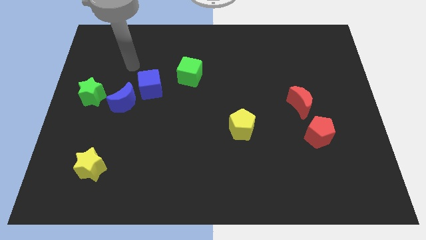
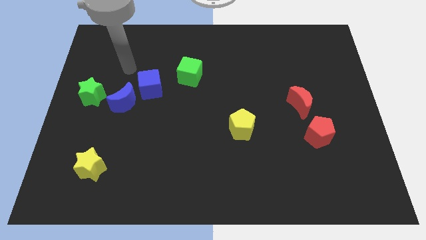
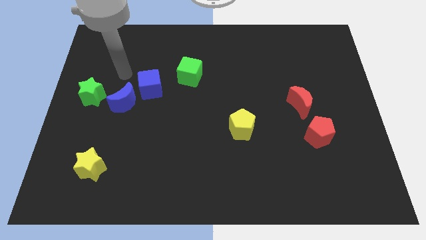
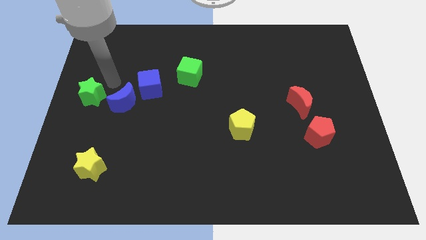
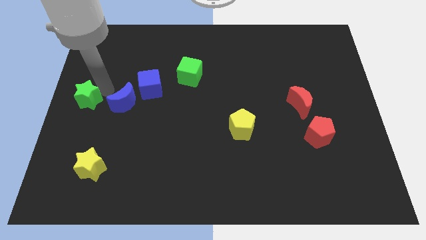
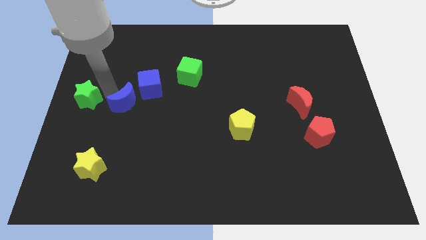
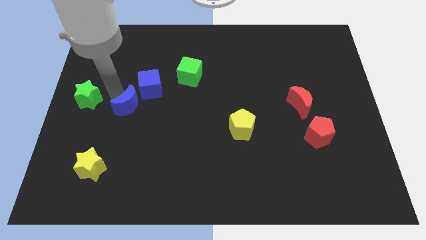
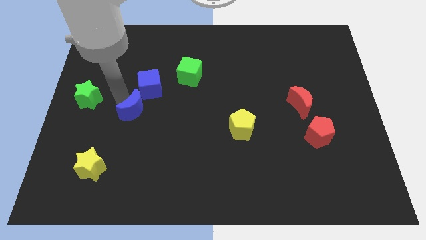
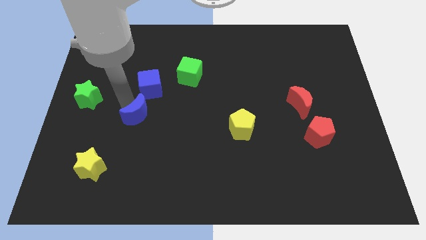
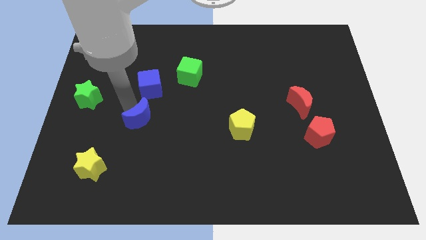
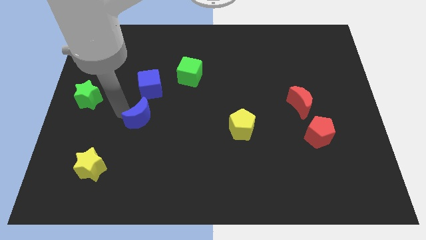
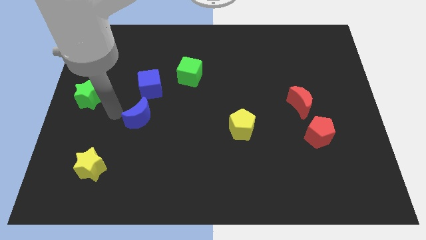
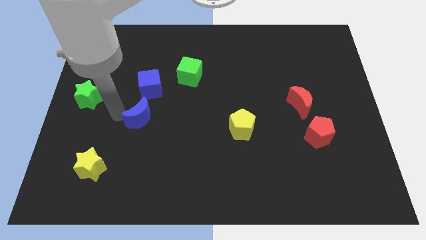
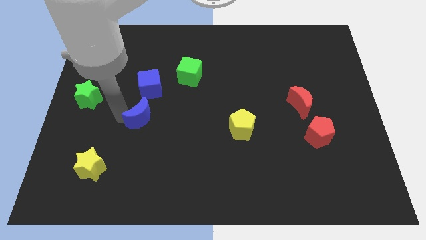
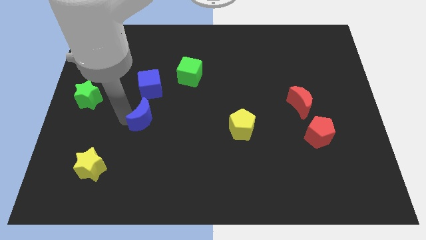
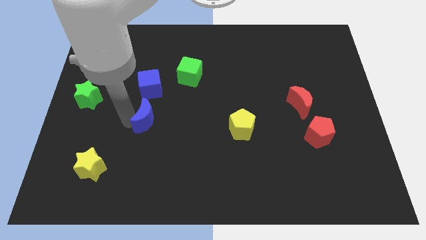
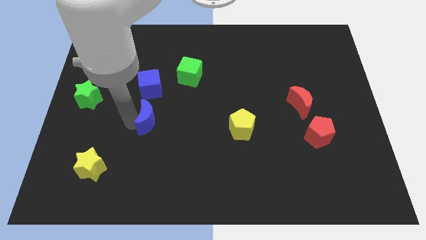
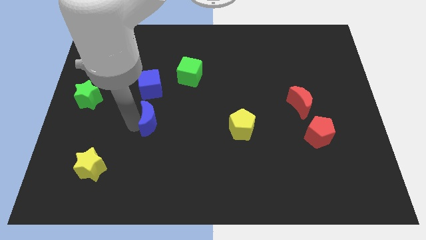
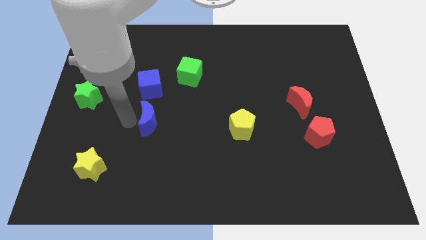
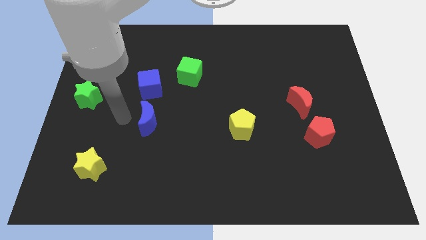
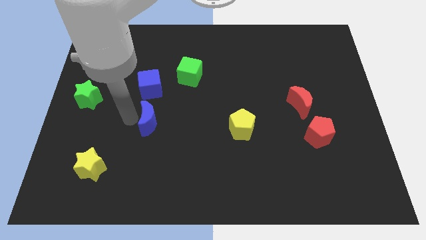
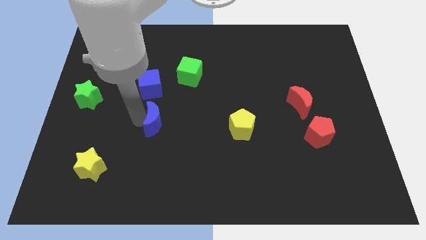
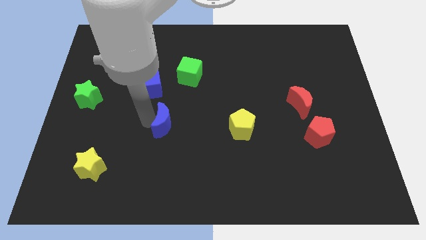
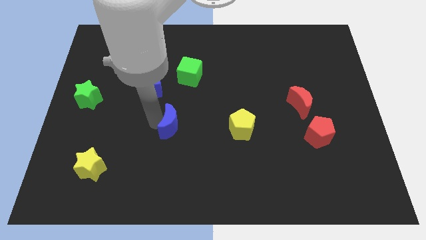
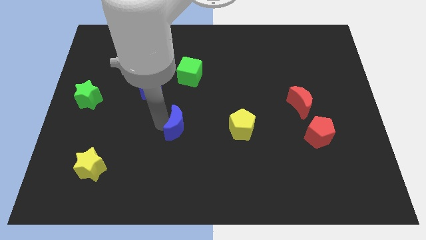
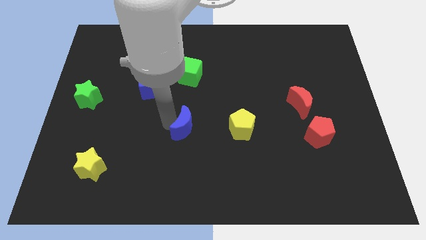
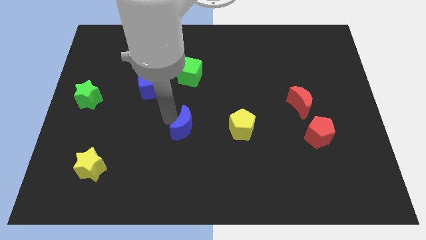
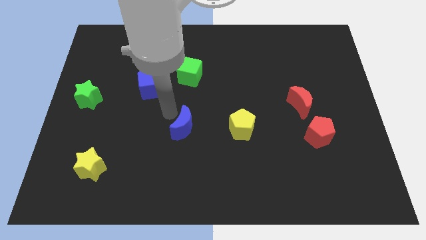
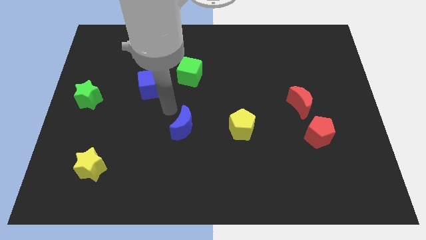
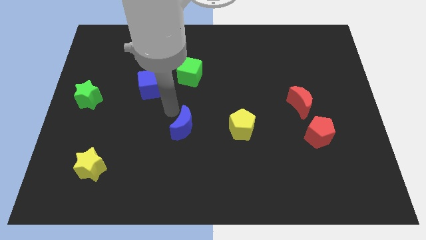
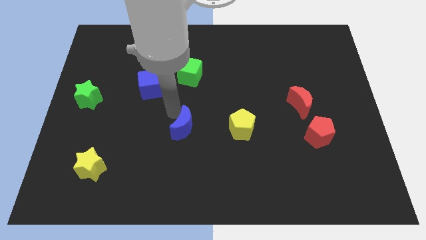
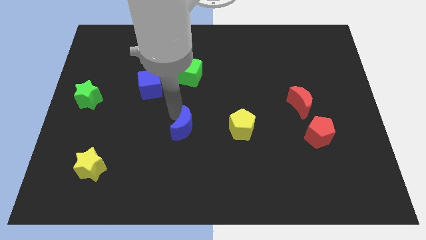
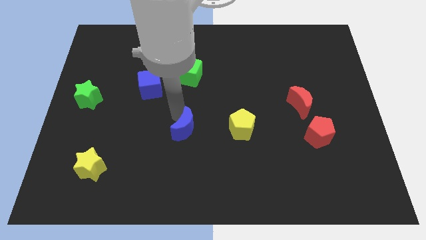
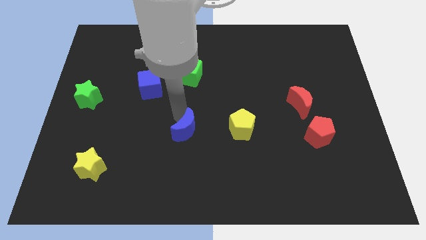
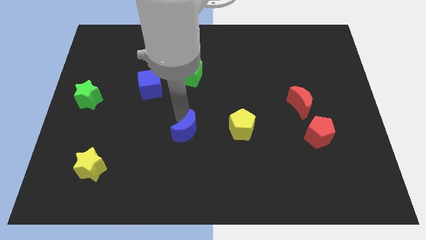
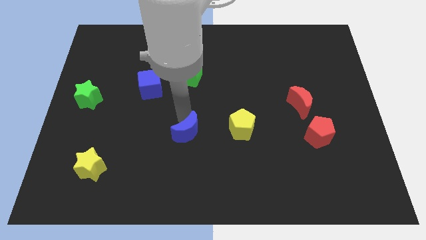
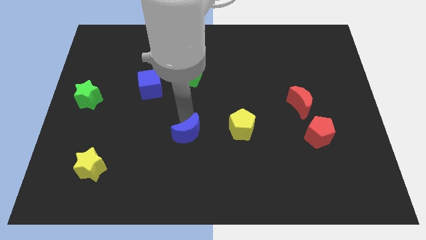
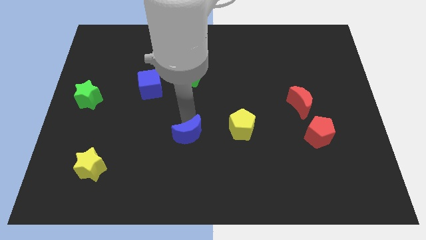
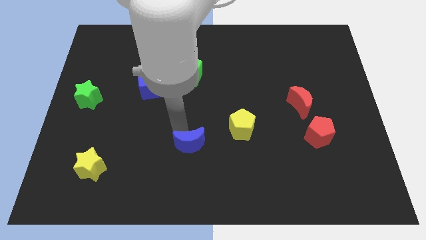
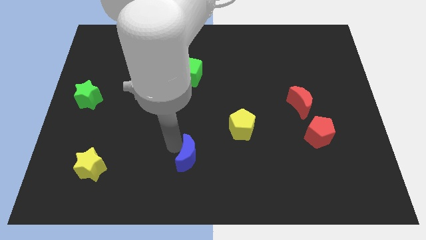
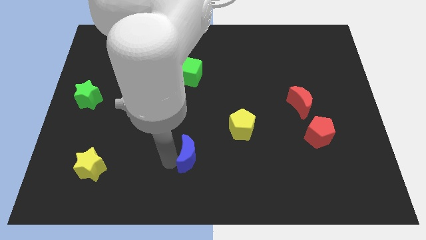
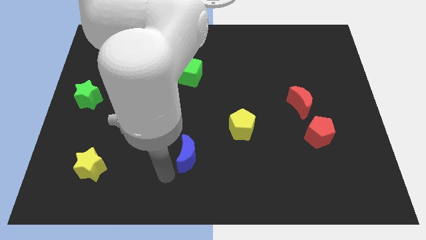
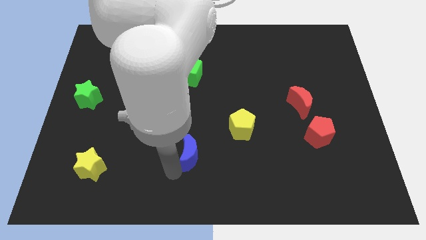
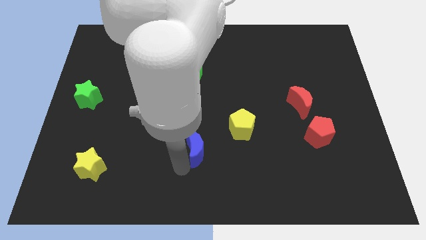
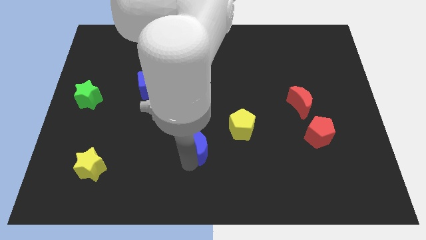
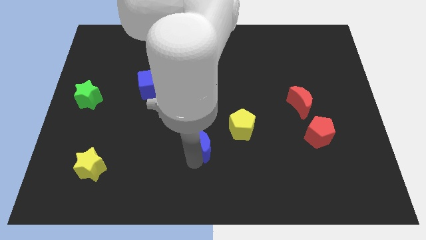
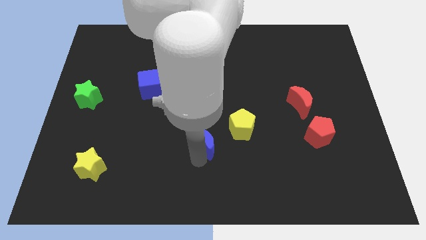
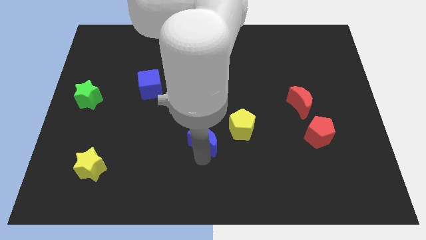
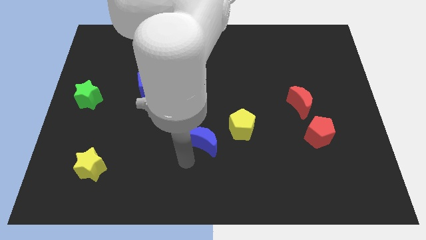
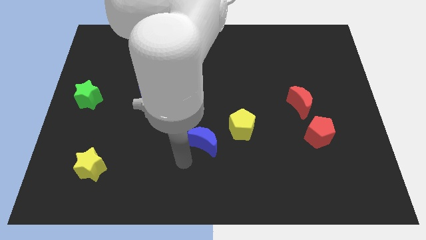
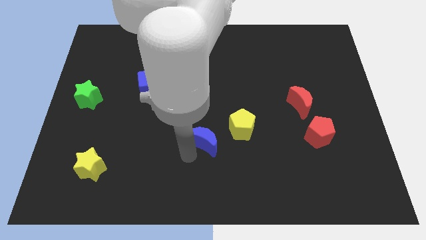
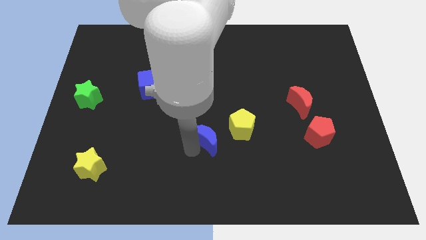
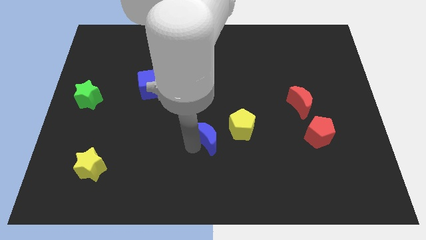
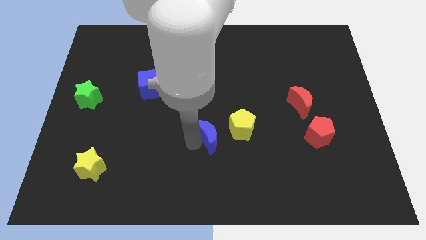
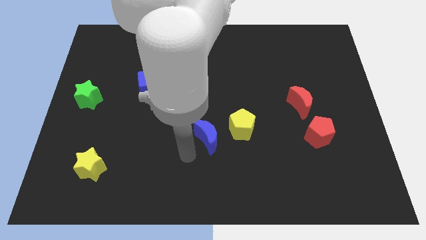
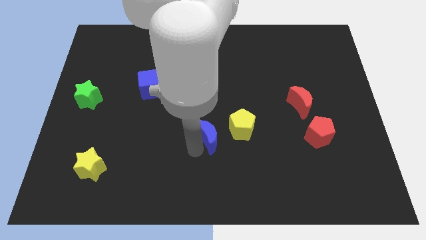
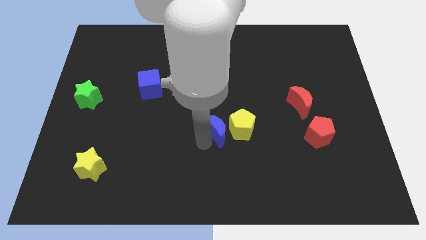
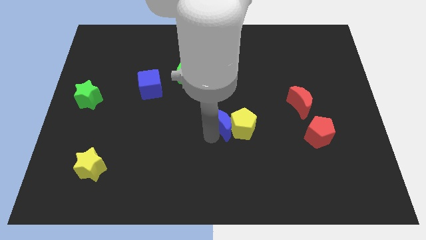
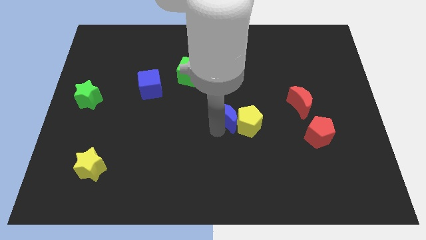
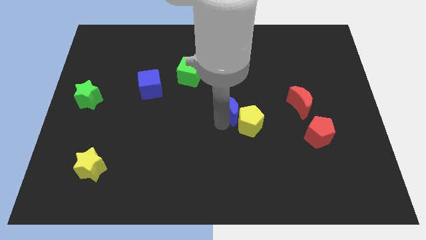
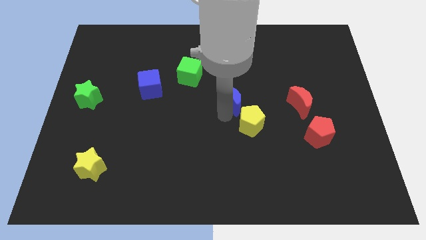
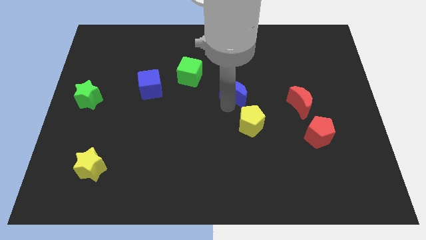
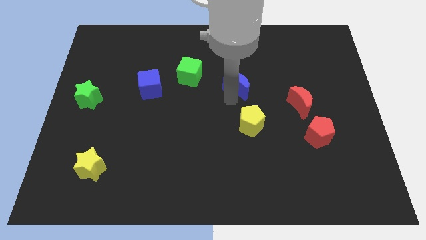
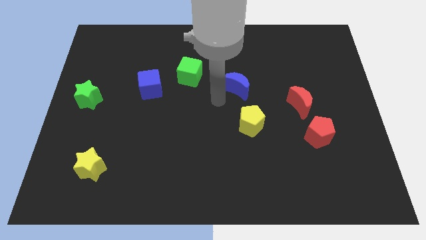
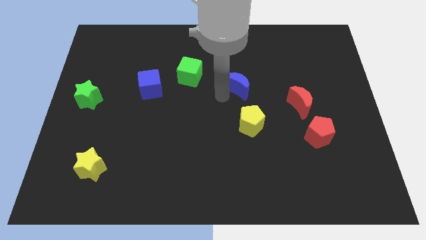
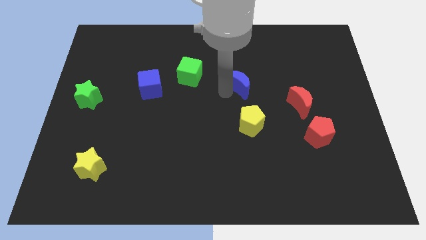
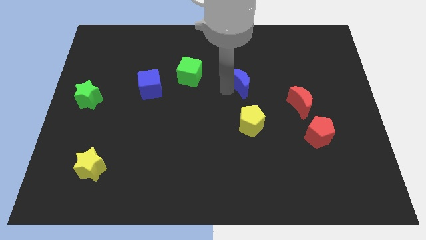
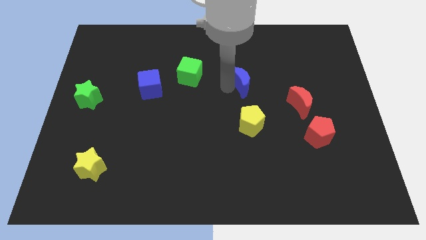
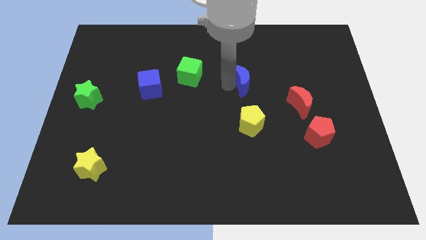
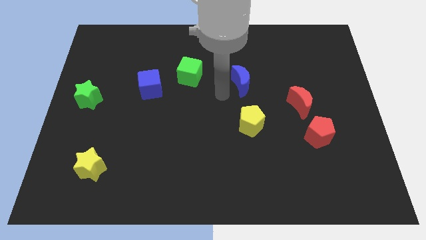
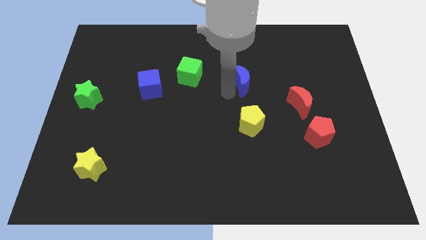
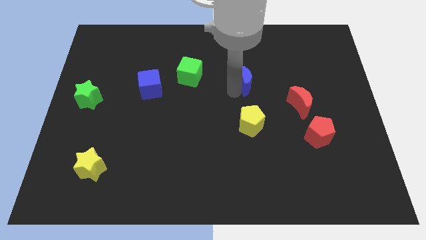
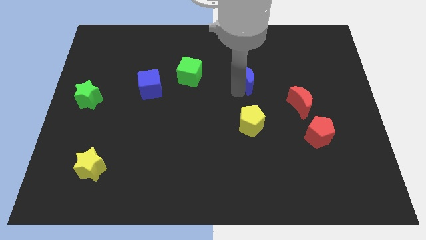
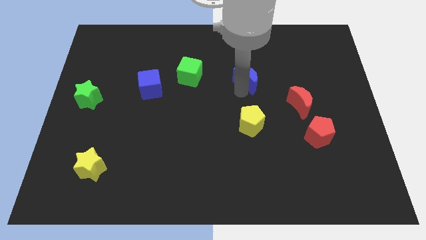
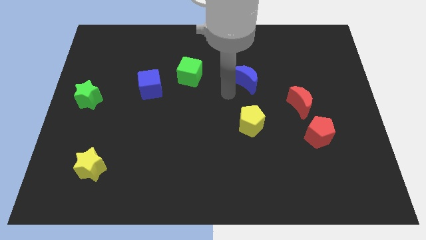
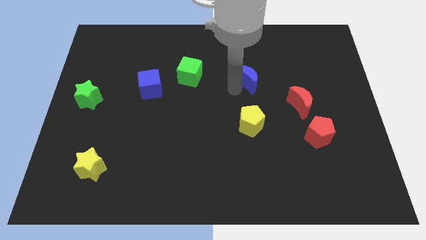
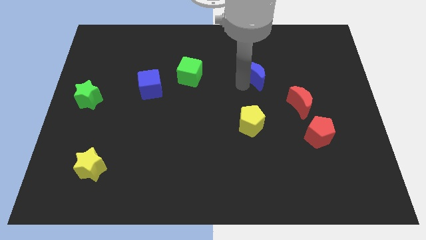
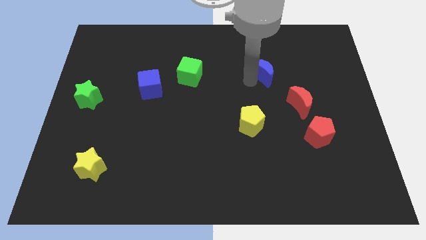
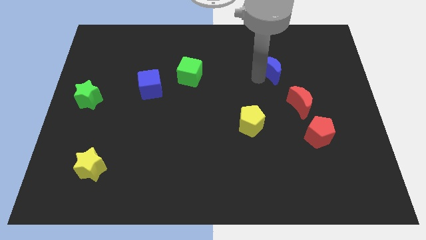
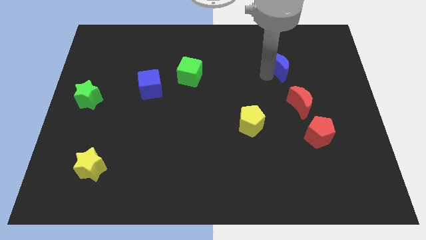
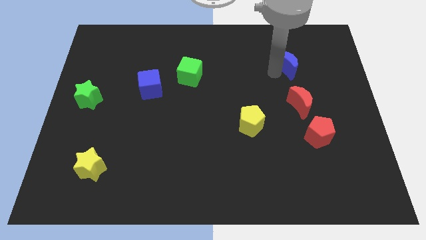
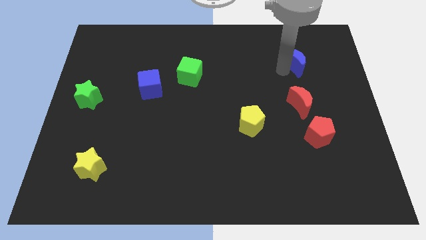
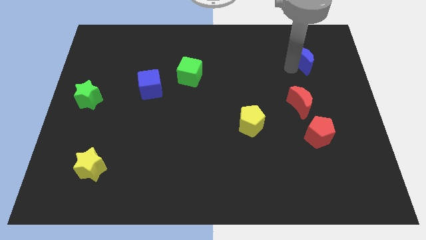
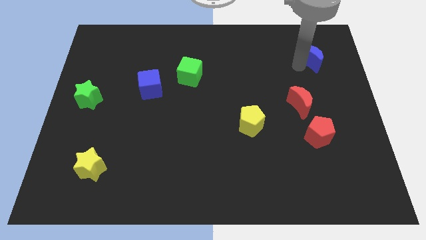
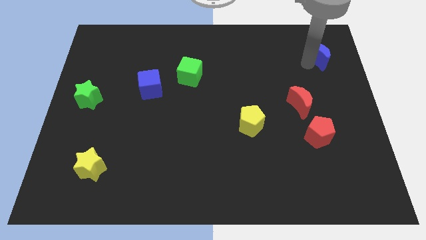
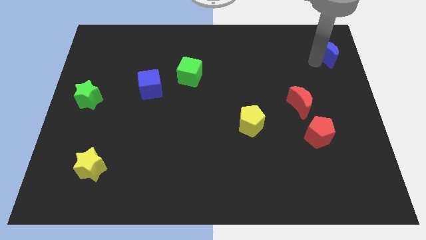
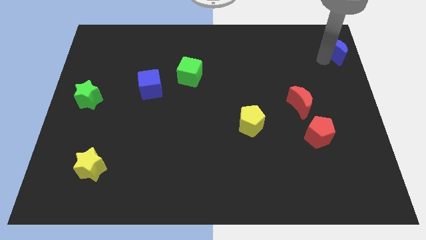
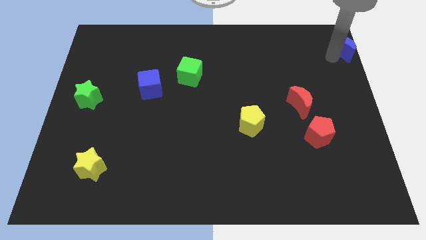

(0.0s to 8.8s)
put the blue moon to the top right of the board
